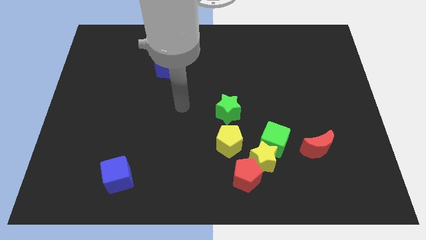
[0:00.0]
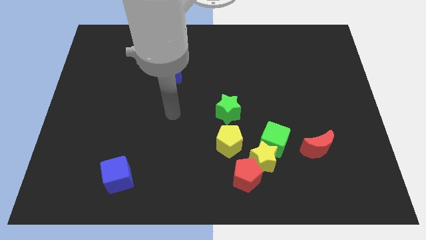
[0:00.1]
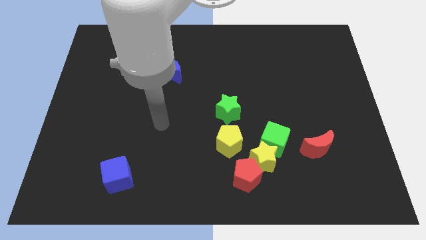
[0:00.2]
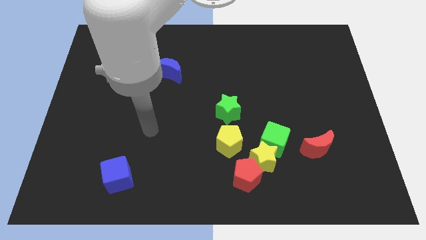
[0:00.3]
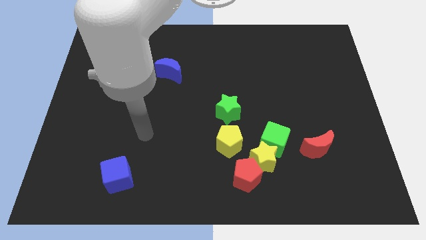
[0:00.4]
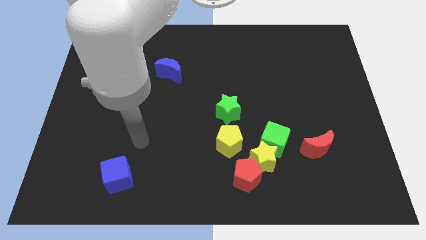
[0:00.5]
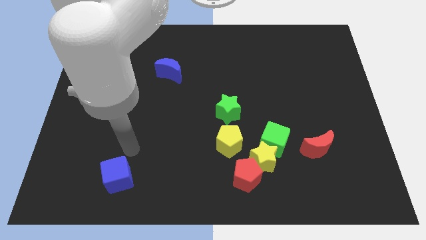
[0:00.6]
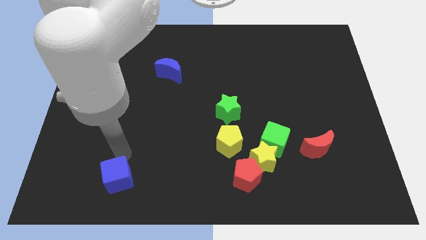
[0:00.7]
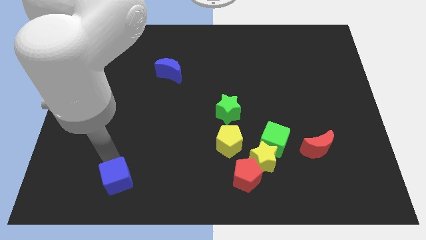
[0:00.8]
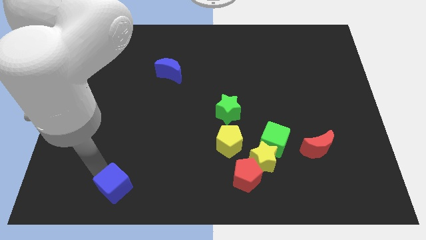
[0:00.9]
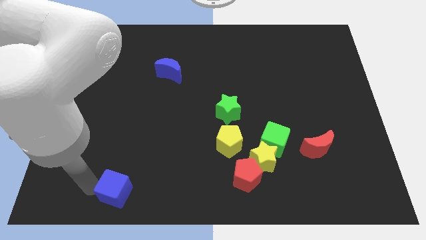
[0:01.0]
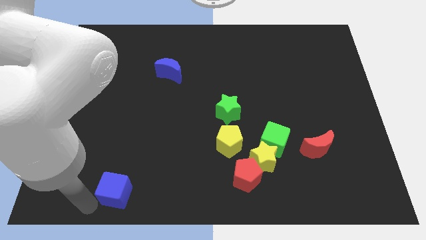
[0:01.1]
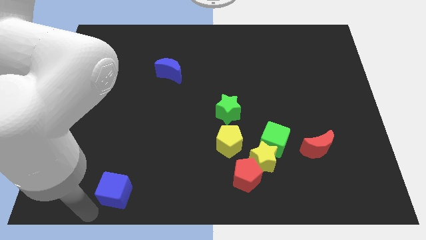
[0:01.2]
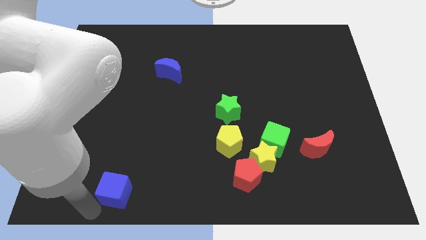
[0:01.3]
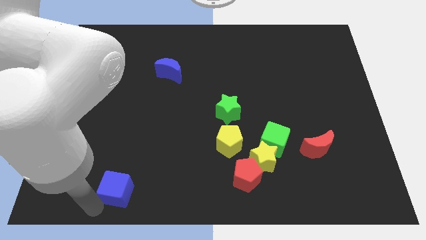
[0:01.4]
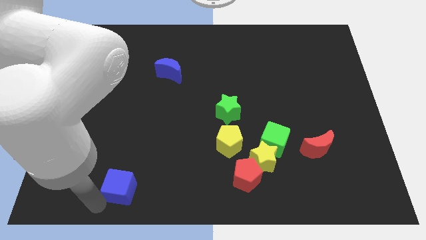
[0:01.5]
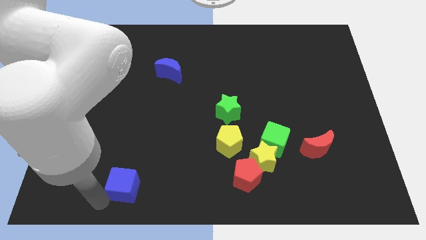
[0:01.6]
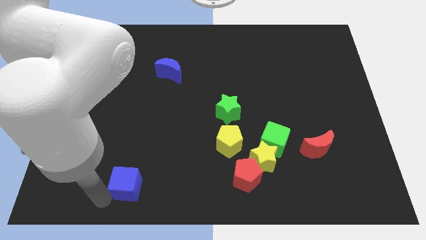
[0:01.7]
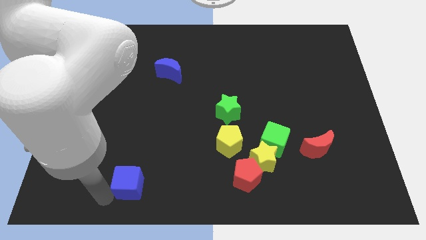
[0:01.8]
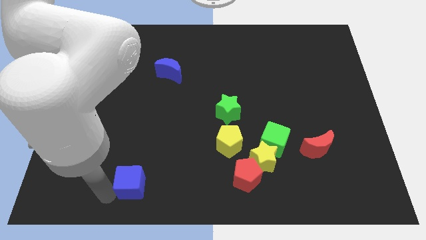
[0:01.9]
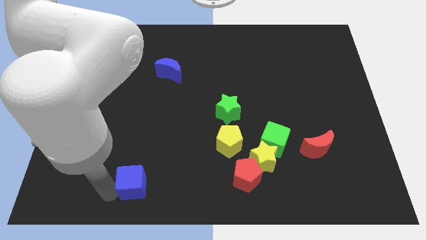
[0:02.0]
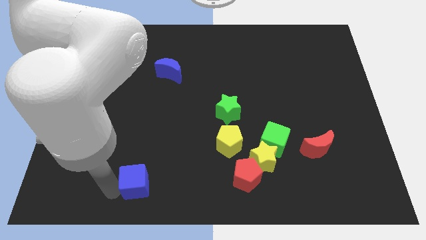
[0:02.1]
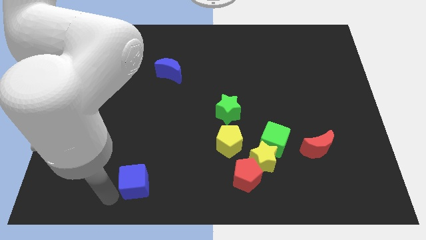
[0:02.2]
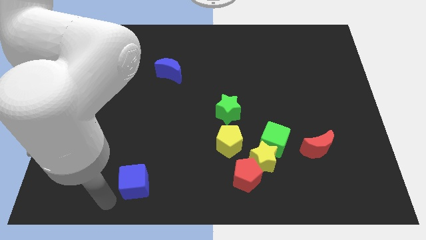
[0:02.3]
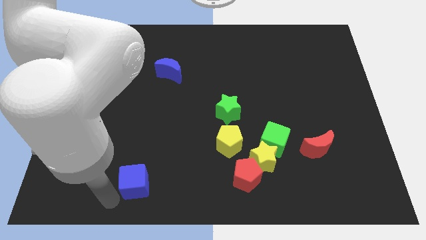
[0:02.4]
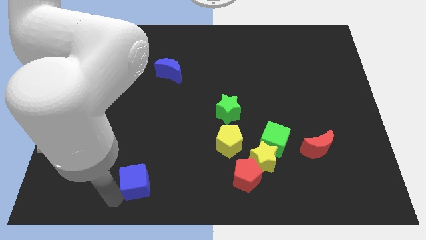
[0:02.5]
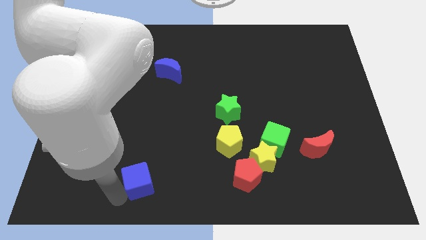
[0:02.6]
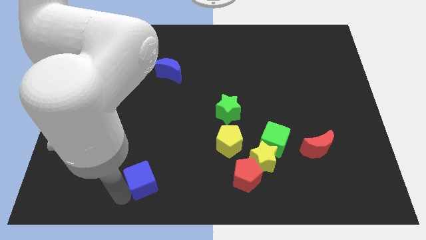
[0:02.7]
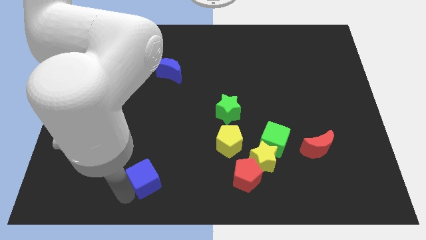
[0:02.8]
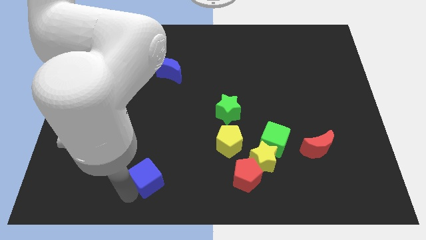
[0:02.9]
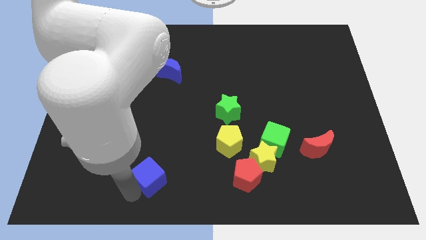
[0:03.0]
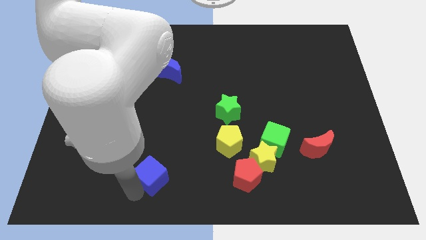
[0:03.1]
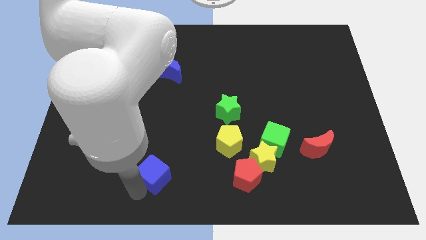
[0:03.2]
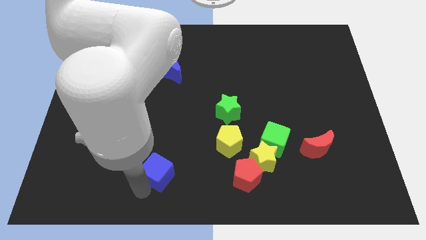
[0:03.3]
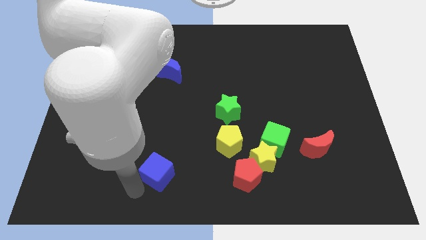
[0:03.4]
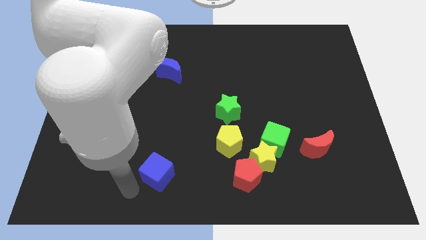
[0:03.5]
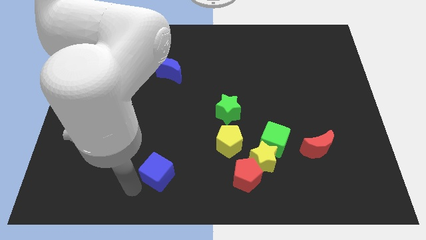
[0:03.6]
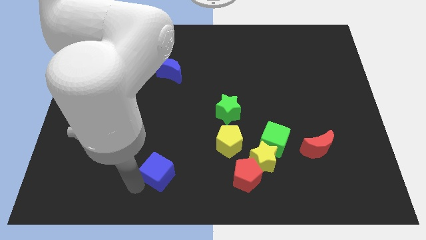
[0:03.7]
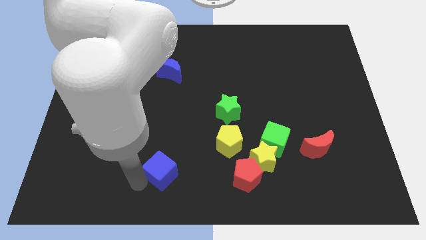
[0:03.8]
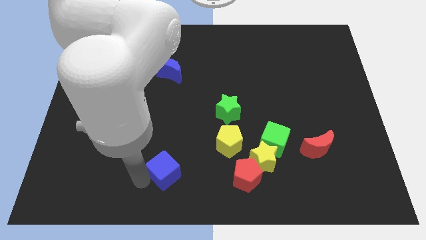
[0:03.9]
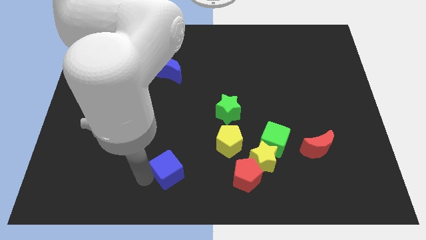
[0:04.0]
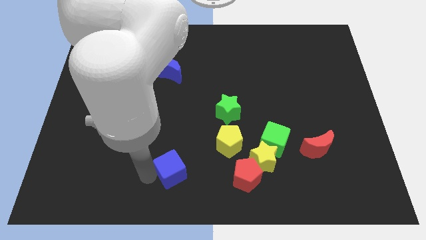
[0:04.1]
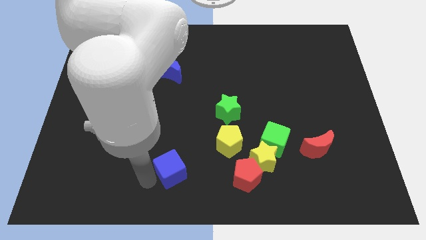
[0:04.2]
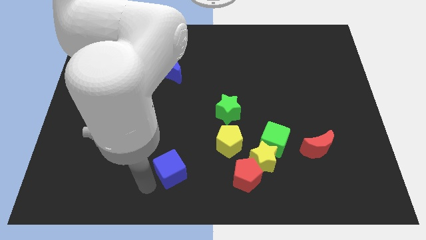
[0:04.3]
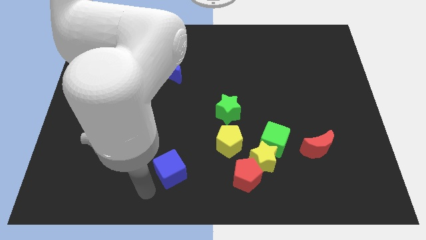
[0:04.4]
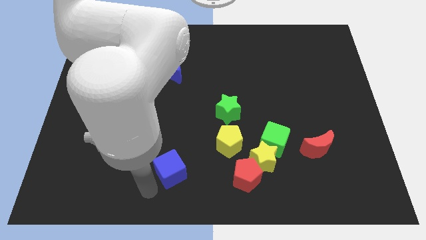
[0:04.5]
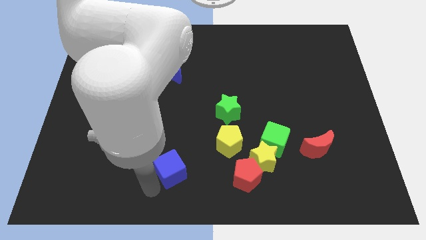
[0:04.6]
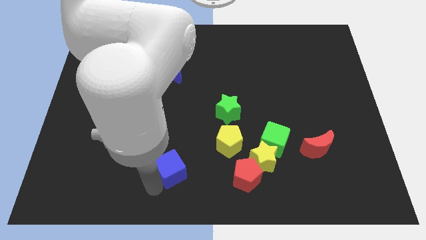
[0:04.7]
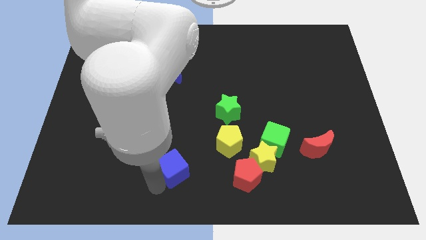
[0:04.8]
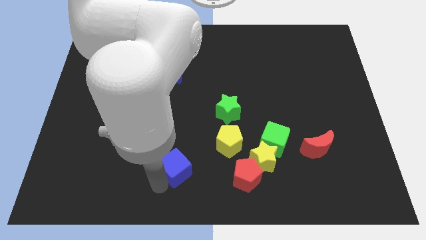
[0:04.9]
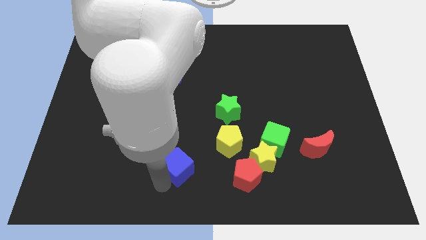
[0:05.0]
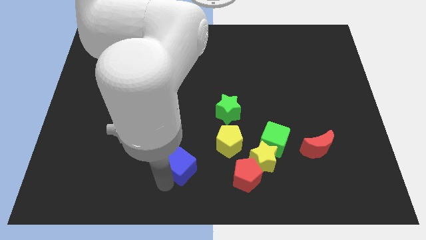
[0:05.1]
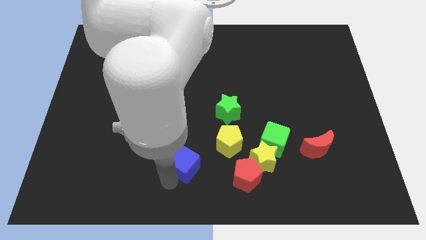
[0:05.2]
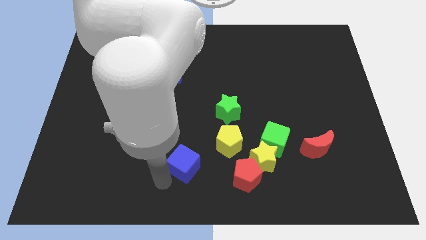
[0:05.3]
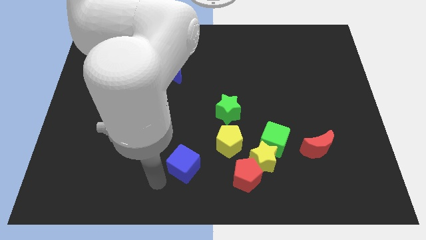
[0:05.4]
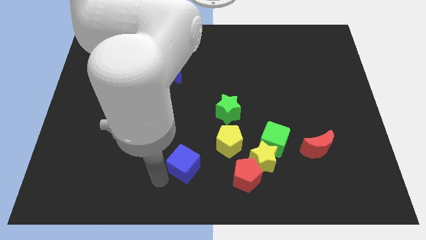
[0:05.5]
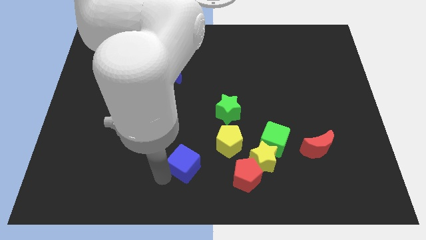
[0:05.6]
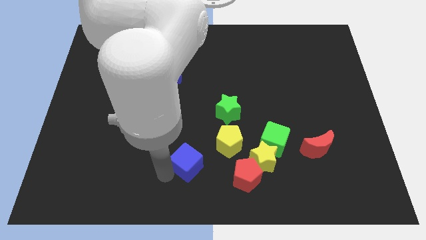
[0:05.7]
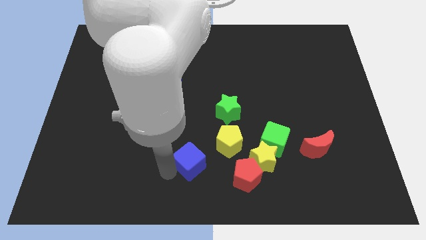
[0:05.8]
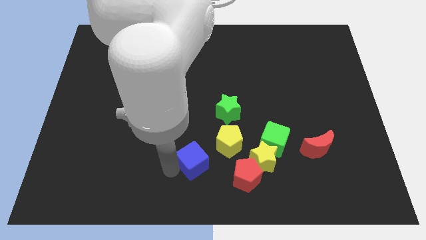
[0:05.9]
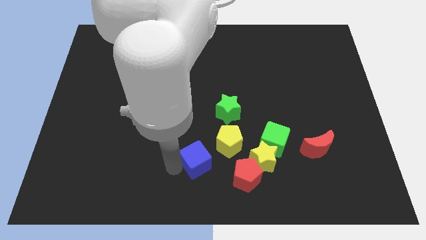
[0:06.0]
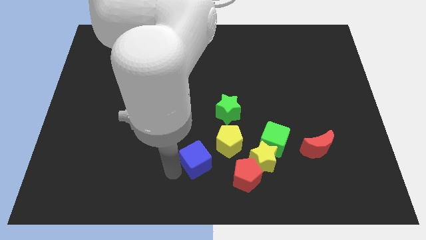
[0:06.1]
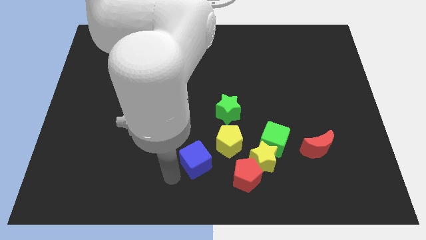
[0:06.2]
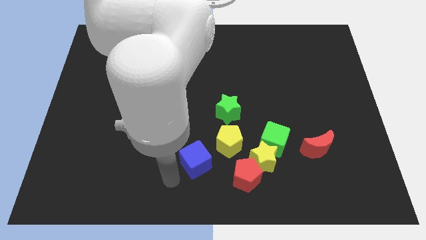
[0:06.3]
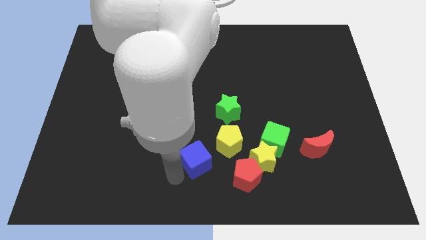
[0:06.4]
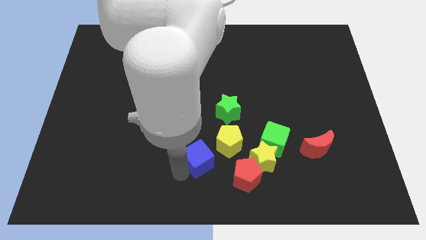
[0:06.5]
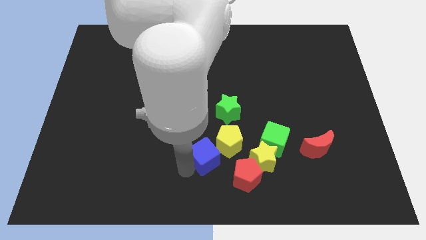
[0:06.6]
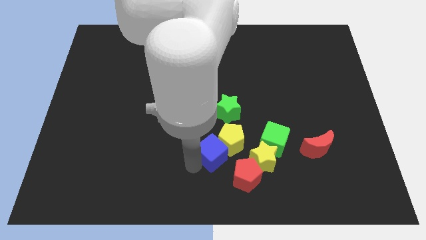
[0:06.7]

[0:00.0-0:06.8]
push the blue cube to the yellow pentagon

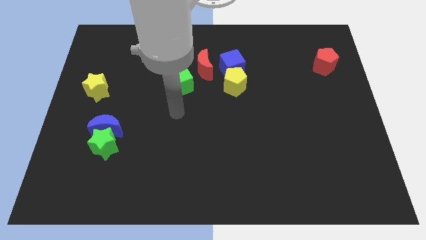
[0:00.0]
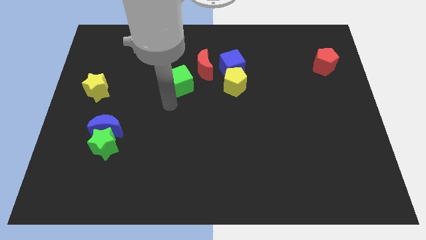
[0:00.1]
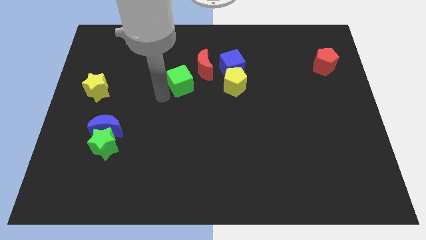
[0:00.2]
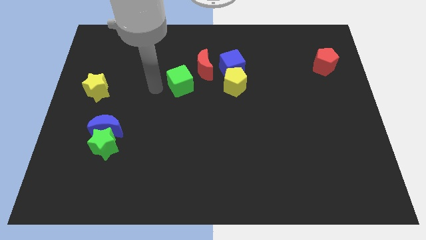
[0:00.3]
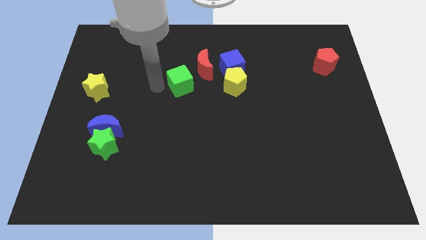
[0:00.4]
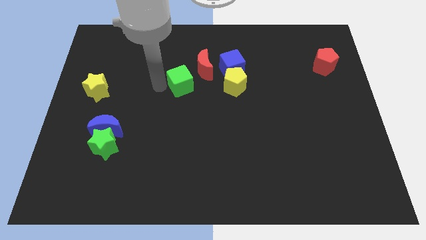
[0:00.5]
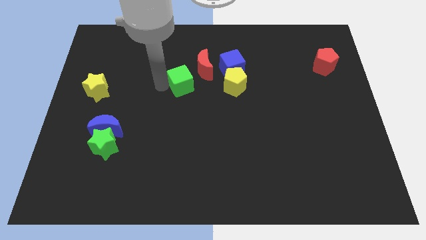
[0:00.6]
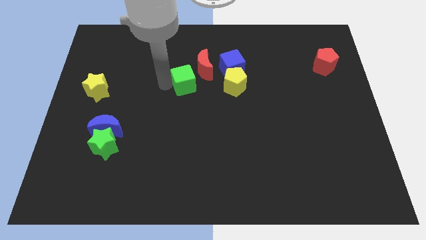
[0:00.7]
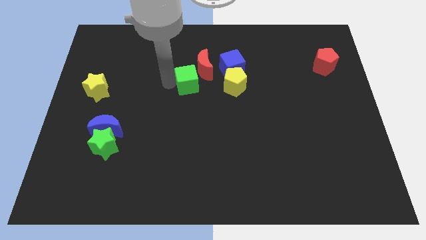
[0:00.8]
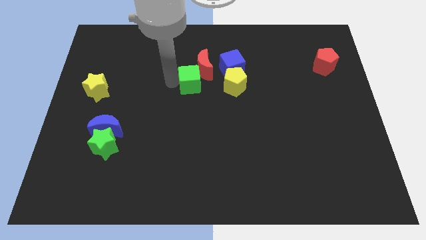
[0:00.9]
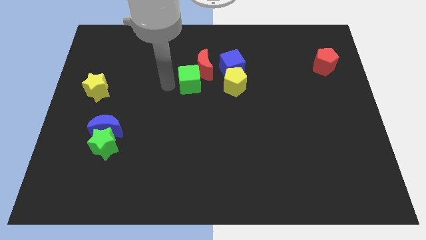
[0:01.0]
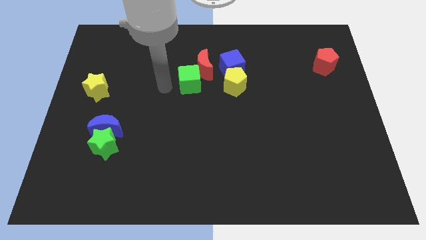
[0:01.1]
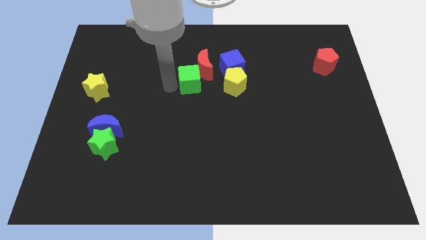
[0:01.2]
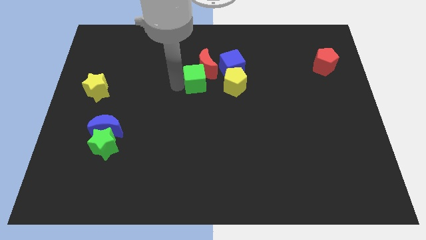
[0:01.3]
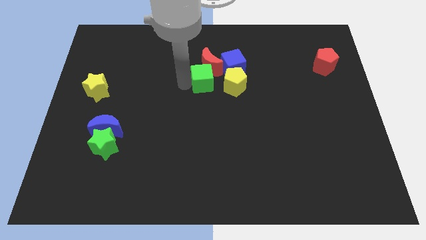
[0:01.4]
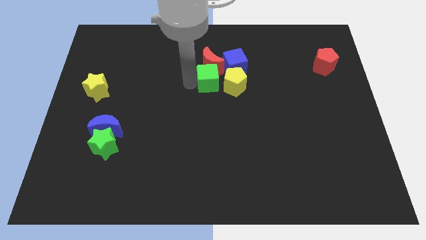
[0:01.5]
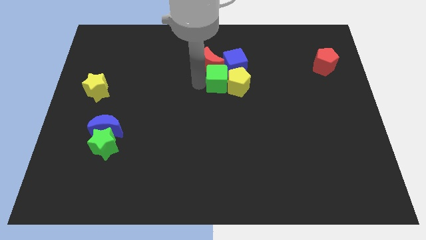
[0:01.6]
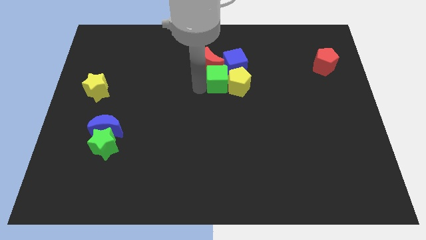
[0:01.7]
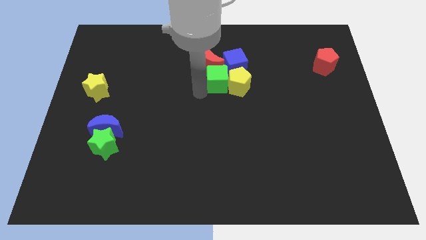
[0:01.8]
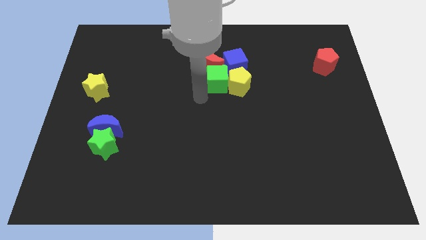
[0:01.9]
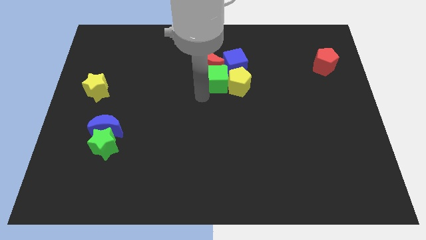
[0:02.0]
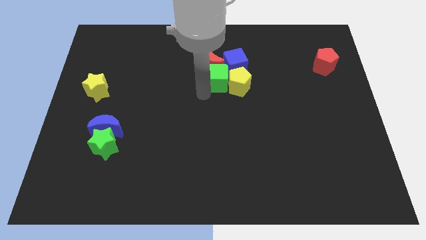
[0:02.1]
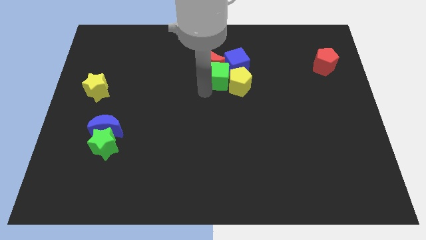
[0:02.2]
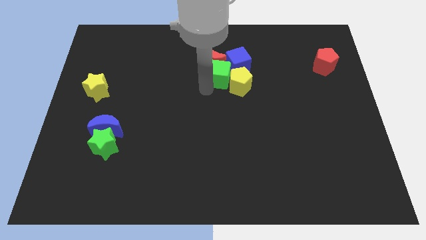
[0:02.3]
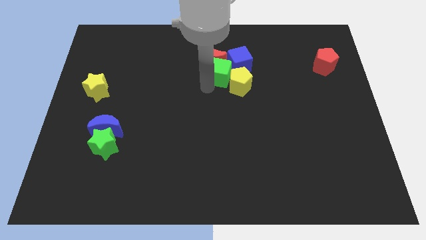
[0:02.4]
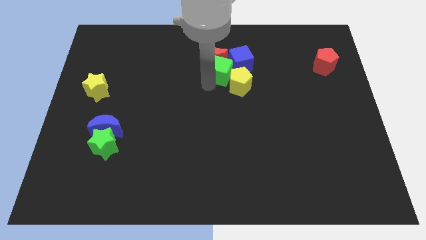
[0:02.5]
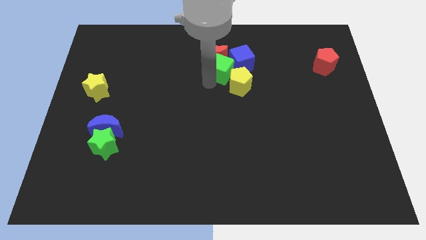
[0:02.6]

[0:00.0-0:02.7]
put the green cube to the blue cube
